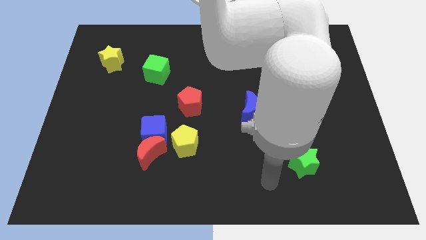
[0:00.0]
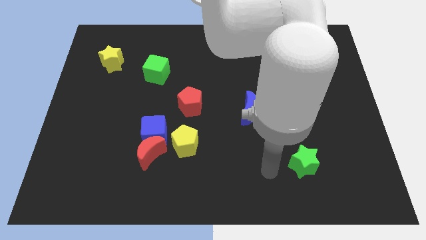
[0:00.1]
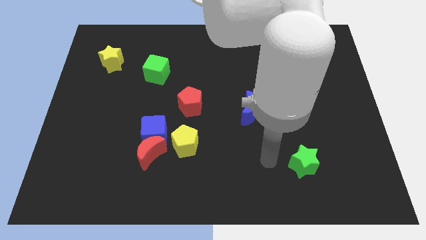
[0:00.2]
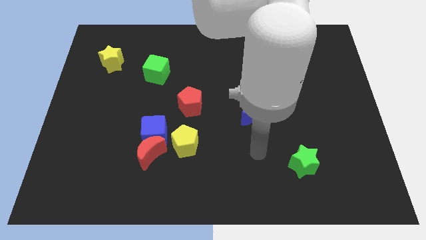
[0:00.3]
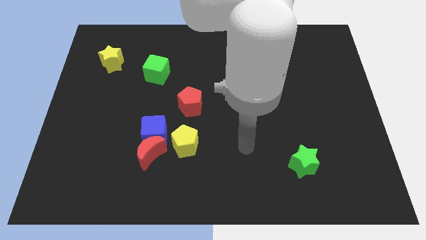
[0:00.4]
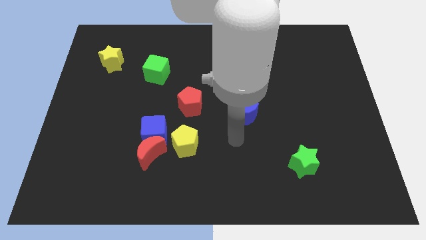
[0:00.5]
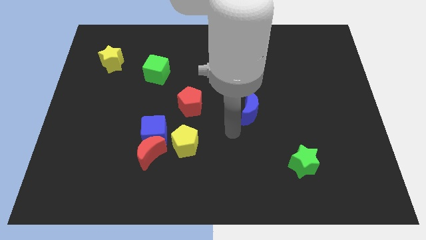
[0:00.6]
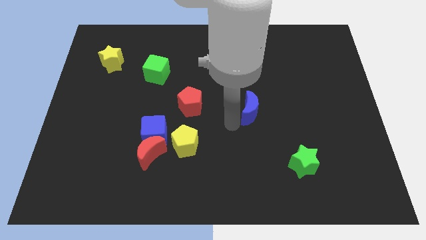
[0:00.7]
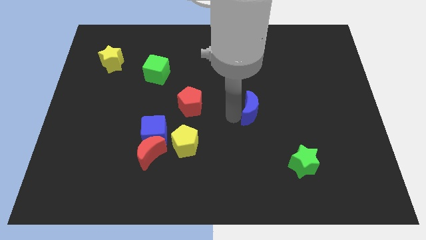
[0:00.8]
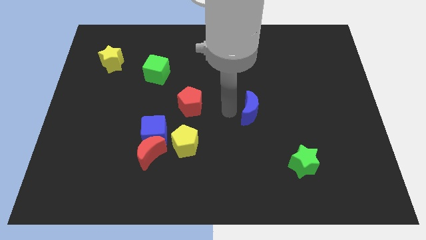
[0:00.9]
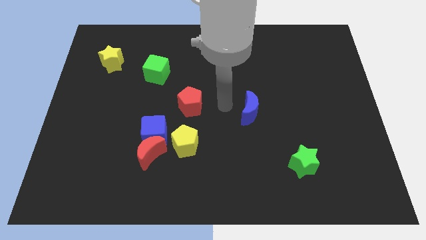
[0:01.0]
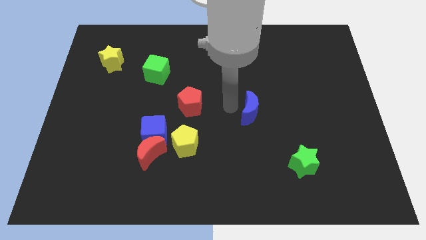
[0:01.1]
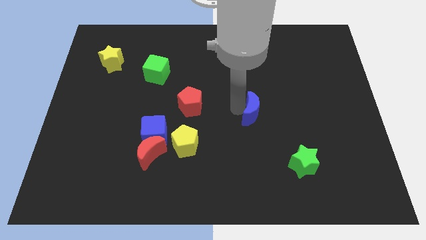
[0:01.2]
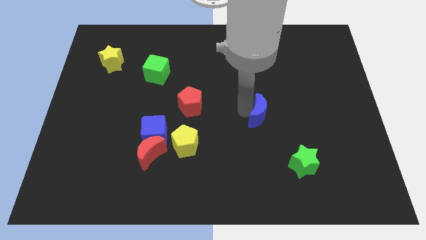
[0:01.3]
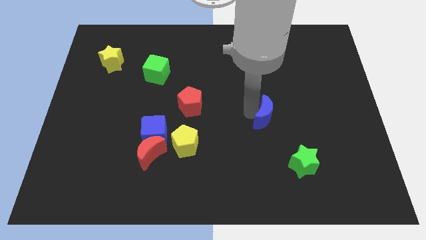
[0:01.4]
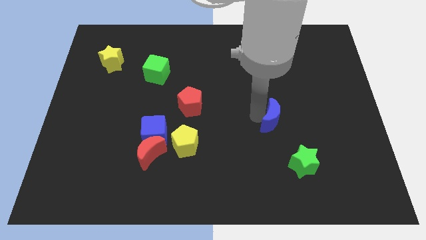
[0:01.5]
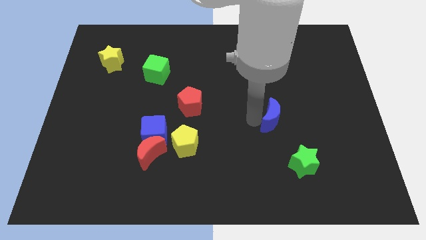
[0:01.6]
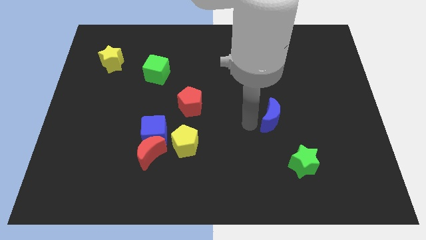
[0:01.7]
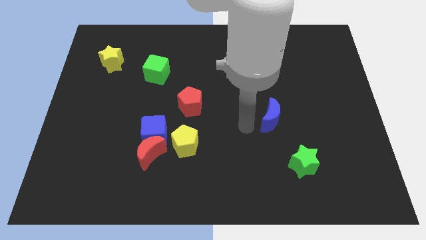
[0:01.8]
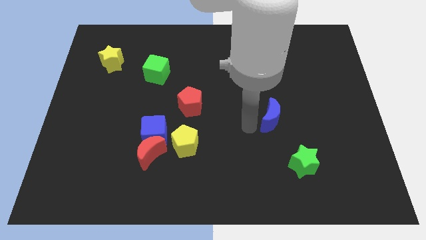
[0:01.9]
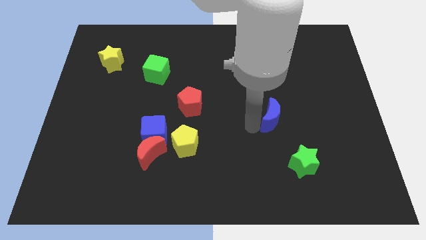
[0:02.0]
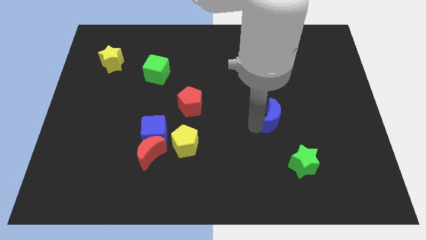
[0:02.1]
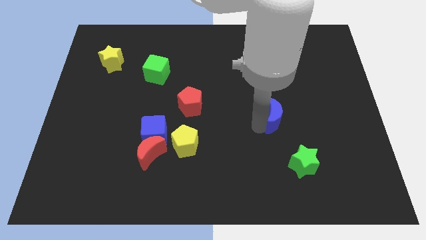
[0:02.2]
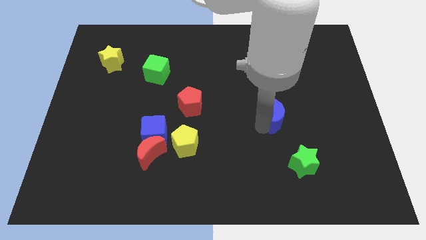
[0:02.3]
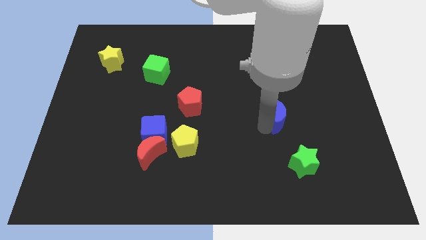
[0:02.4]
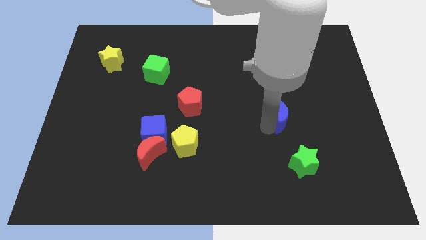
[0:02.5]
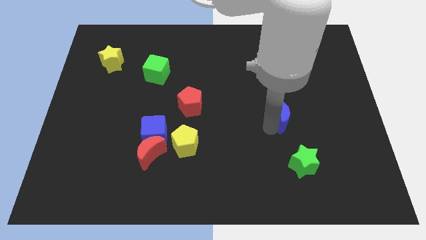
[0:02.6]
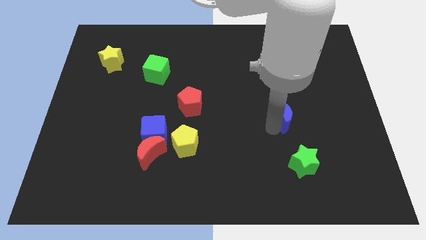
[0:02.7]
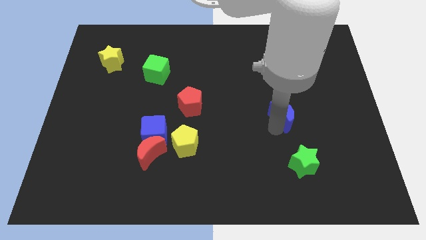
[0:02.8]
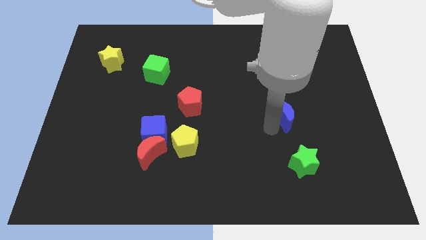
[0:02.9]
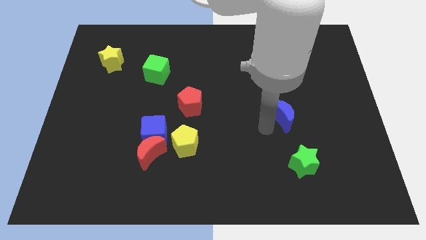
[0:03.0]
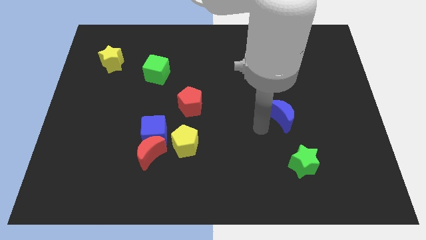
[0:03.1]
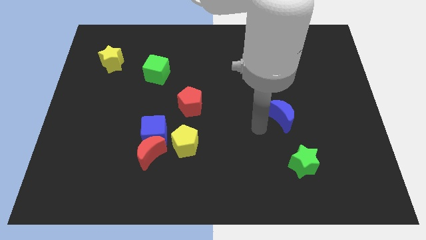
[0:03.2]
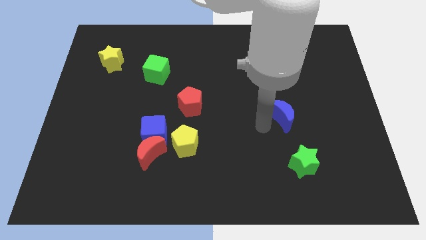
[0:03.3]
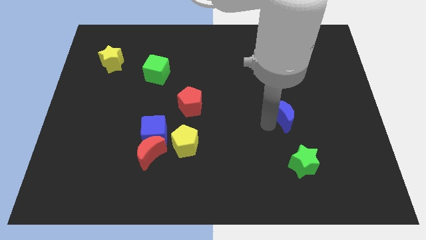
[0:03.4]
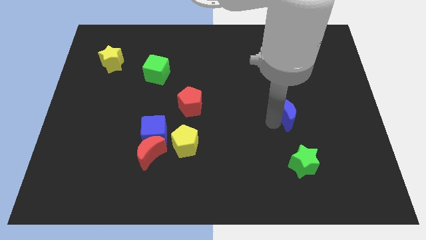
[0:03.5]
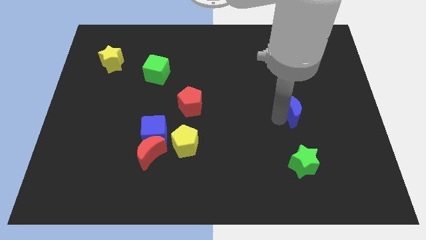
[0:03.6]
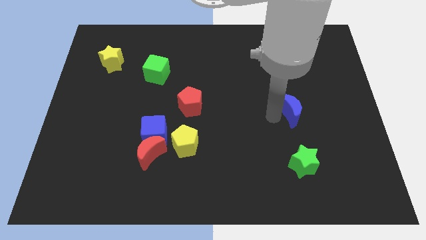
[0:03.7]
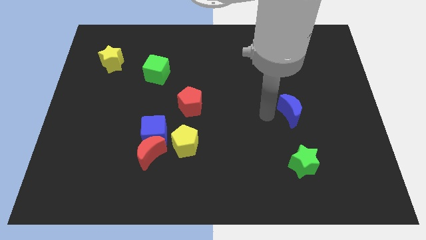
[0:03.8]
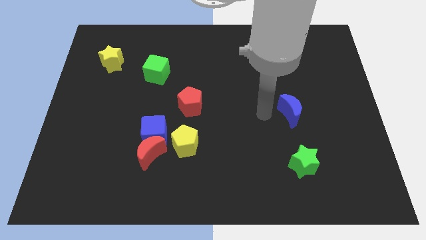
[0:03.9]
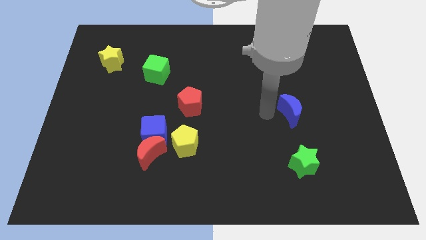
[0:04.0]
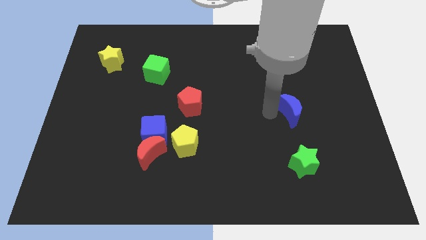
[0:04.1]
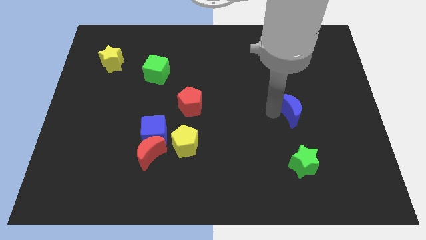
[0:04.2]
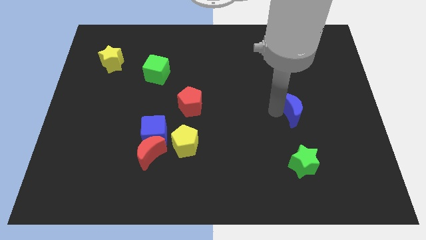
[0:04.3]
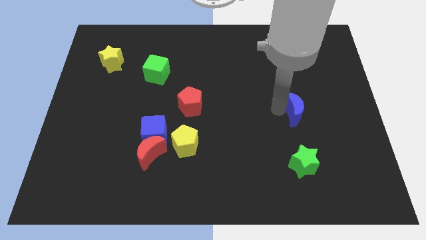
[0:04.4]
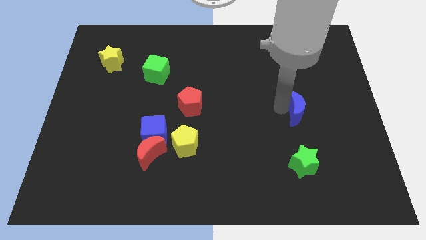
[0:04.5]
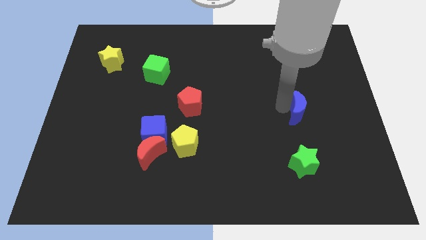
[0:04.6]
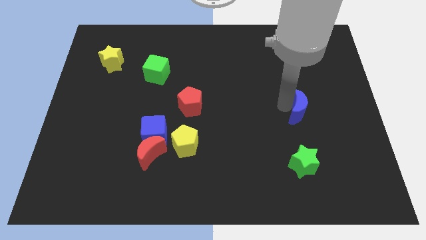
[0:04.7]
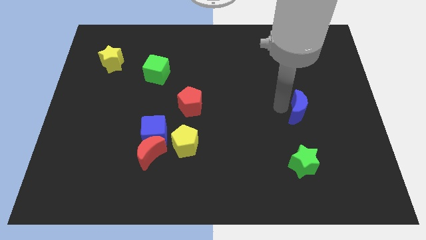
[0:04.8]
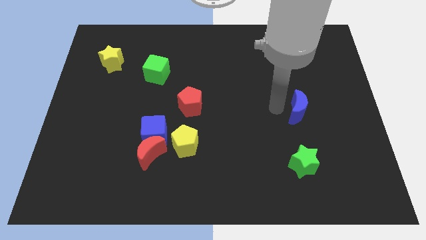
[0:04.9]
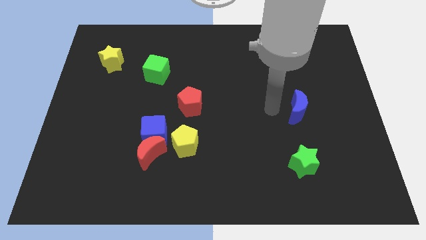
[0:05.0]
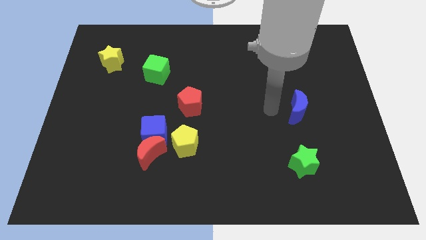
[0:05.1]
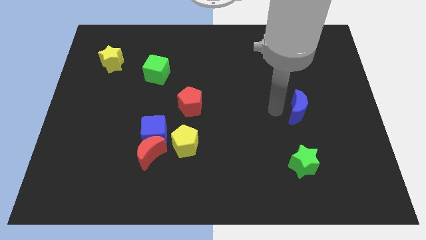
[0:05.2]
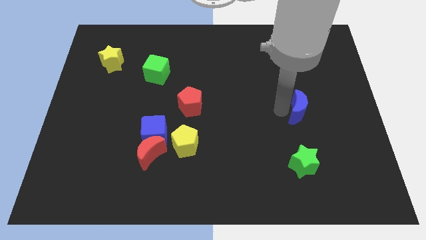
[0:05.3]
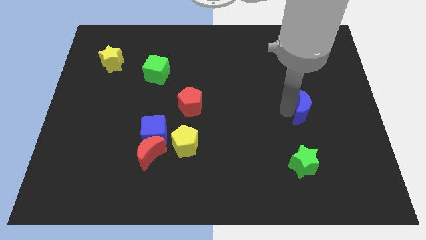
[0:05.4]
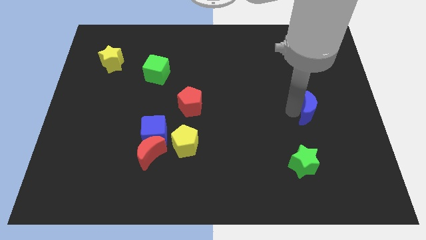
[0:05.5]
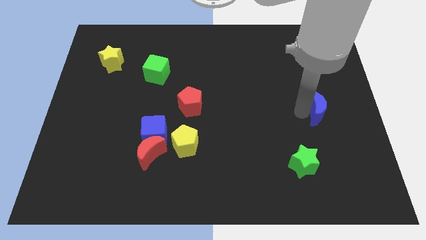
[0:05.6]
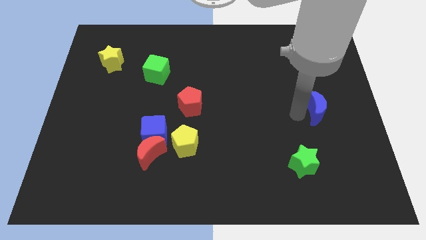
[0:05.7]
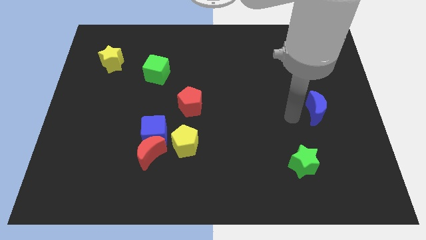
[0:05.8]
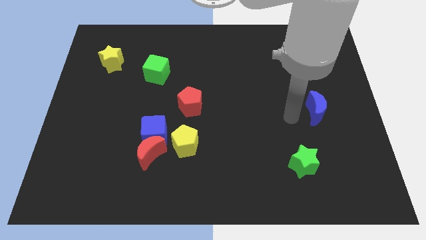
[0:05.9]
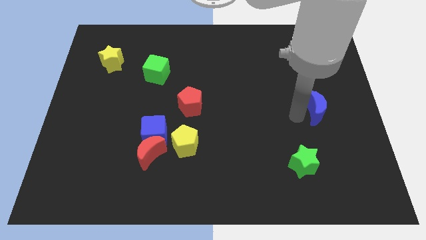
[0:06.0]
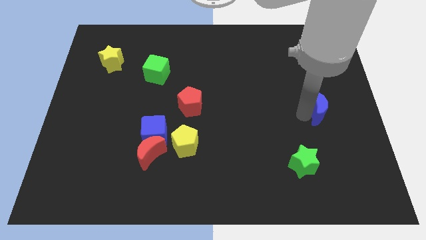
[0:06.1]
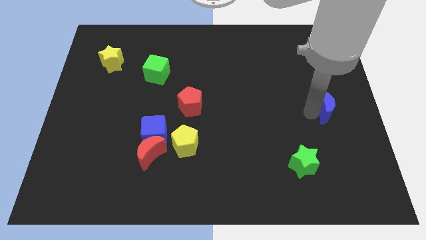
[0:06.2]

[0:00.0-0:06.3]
move the blue moon to the center right

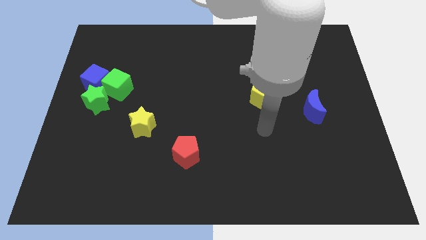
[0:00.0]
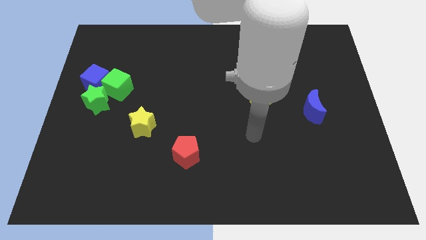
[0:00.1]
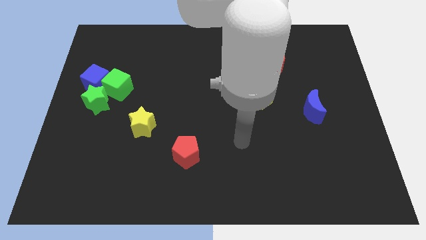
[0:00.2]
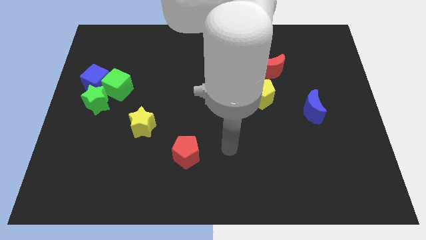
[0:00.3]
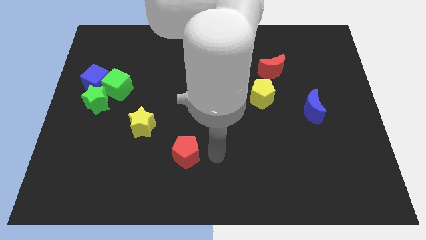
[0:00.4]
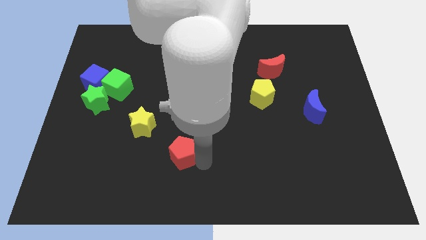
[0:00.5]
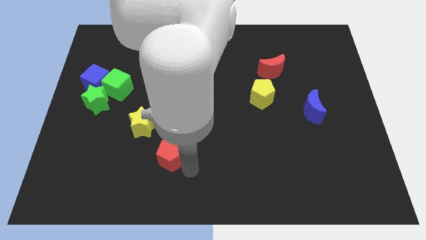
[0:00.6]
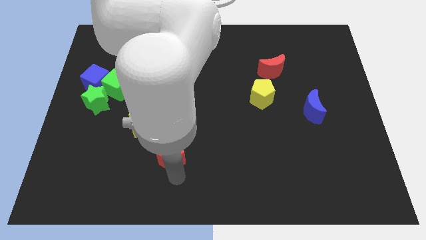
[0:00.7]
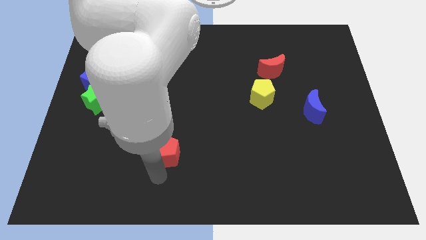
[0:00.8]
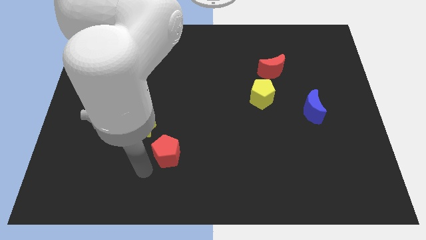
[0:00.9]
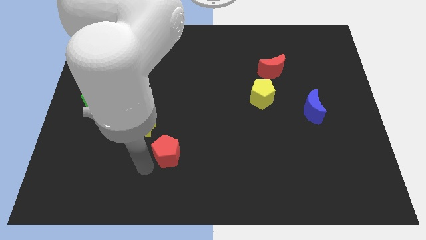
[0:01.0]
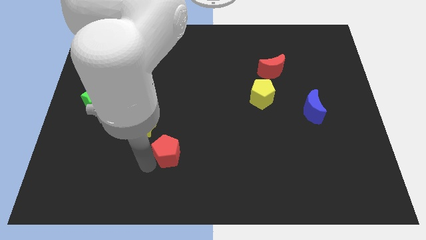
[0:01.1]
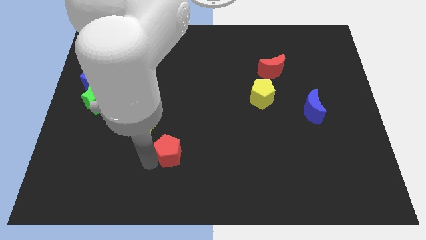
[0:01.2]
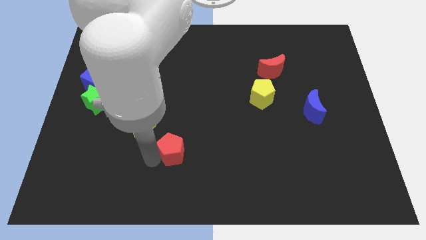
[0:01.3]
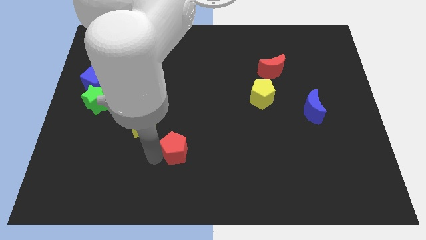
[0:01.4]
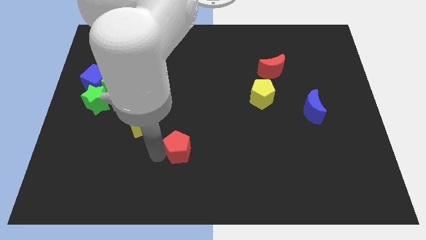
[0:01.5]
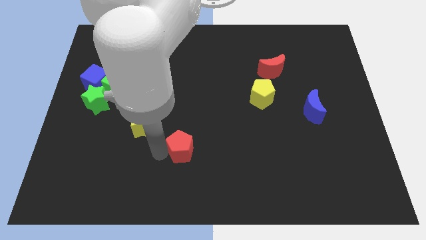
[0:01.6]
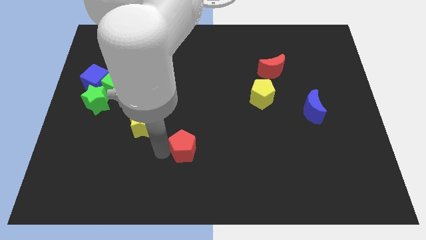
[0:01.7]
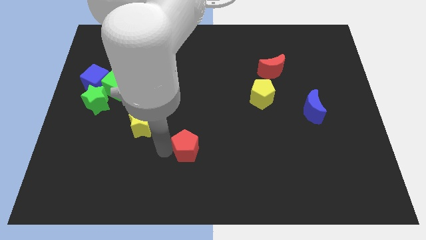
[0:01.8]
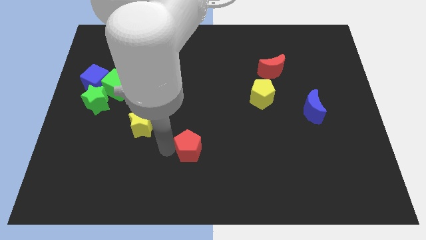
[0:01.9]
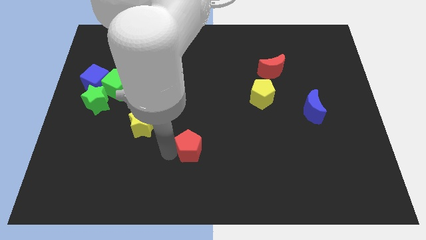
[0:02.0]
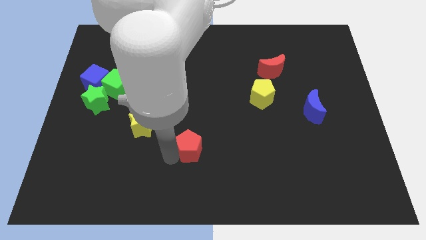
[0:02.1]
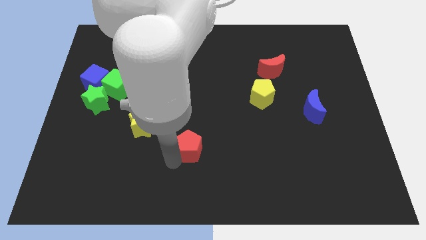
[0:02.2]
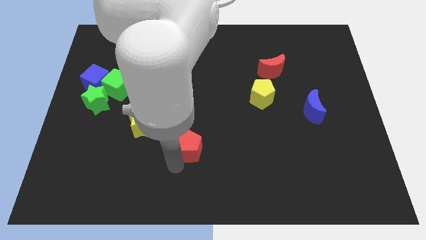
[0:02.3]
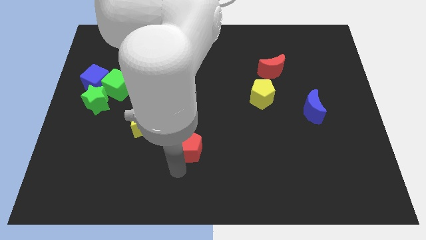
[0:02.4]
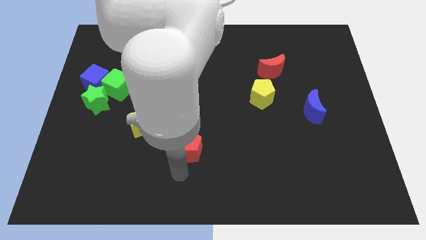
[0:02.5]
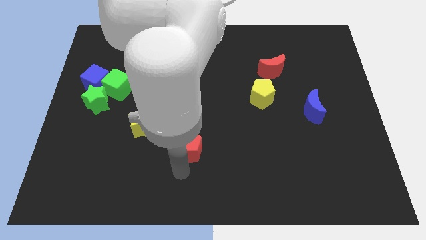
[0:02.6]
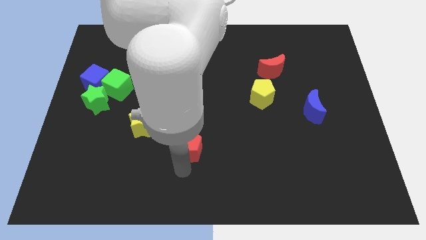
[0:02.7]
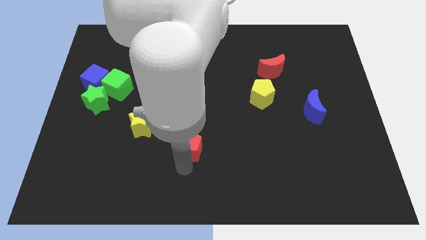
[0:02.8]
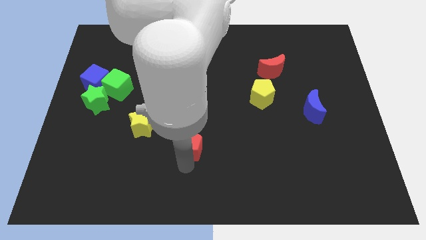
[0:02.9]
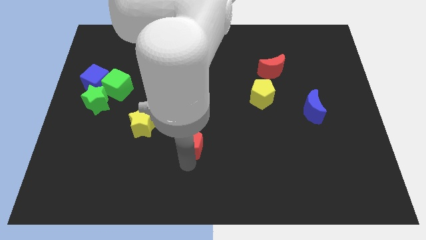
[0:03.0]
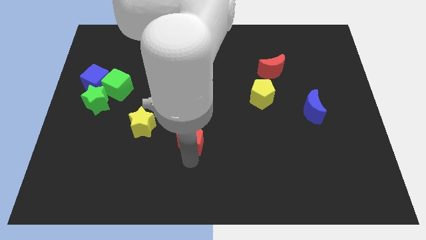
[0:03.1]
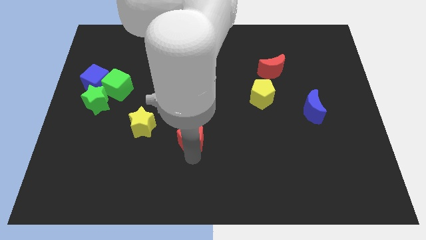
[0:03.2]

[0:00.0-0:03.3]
put the red pentagon to the middle of the board
